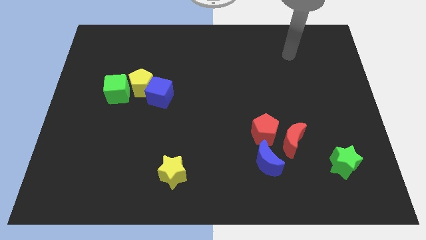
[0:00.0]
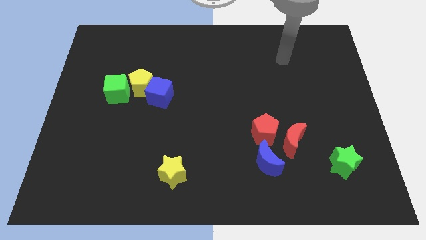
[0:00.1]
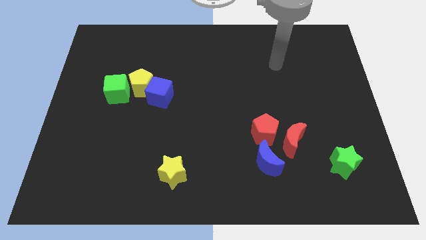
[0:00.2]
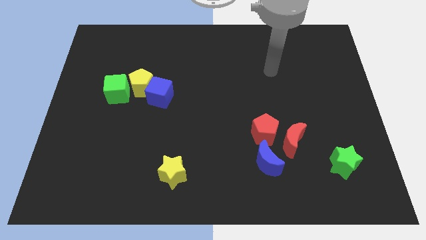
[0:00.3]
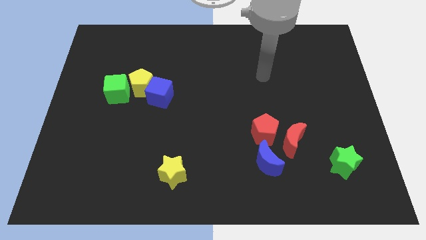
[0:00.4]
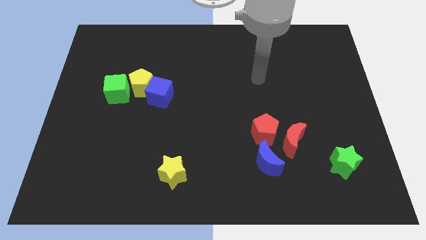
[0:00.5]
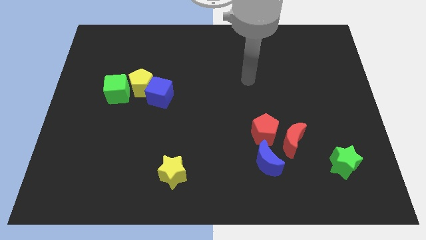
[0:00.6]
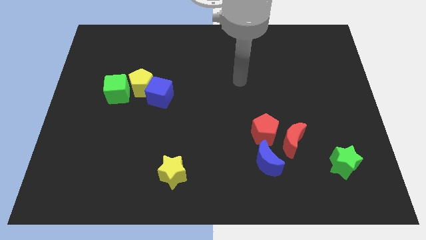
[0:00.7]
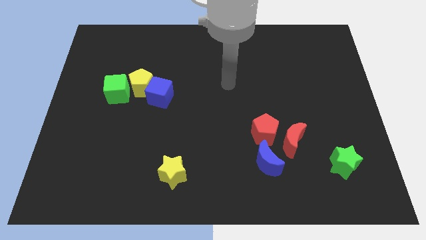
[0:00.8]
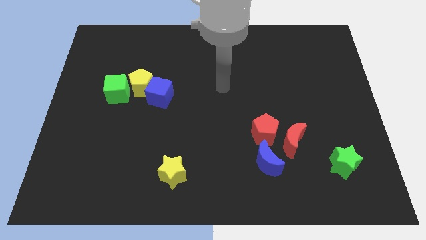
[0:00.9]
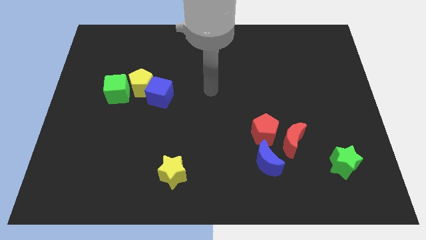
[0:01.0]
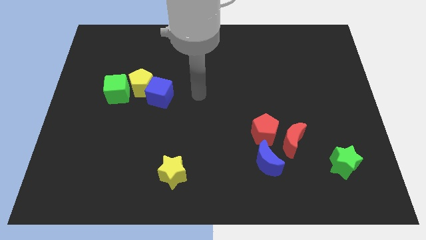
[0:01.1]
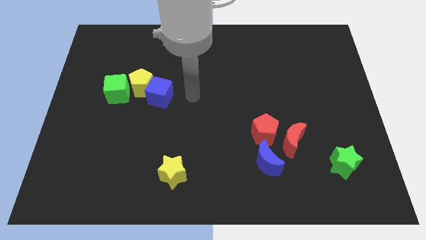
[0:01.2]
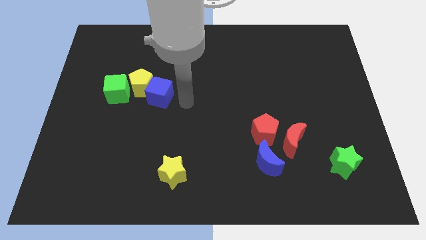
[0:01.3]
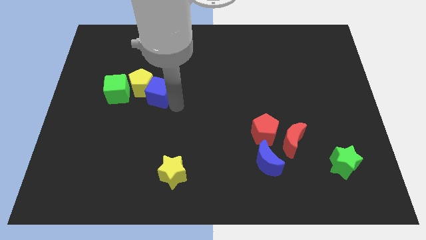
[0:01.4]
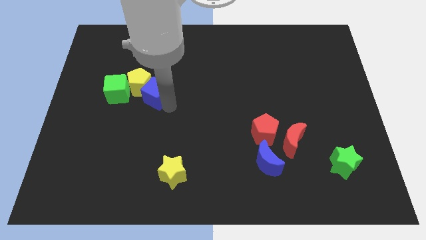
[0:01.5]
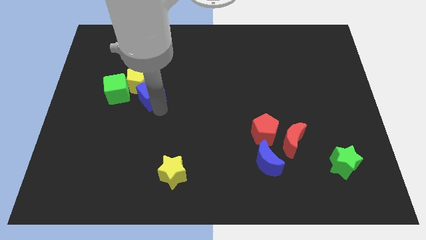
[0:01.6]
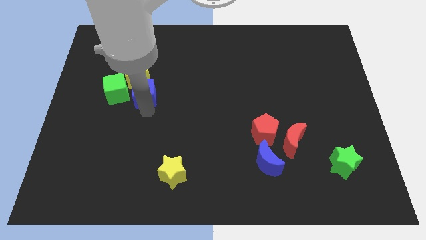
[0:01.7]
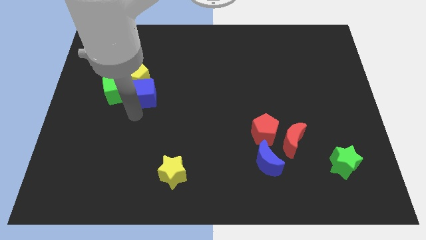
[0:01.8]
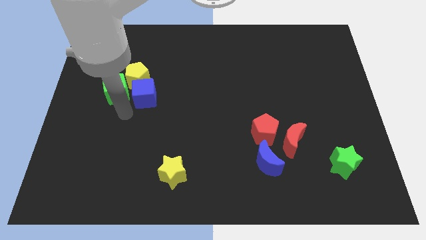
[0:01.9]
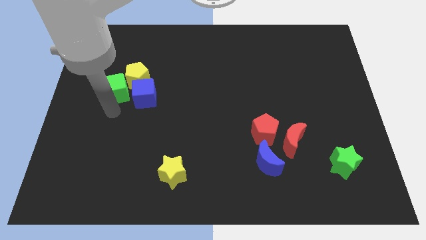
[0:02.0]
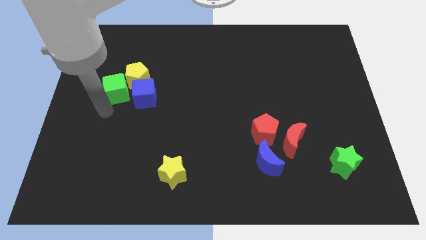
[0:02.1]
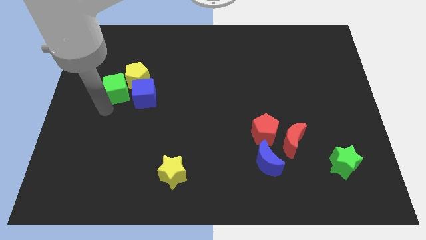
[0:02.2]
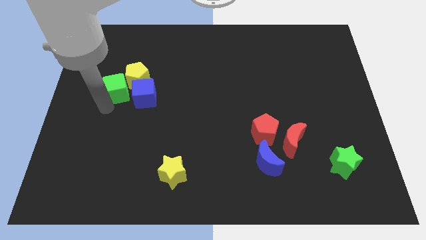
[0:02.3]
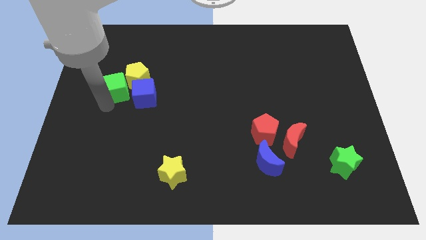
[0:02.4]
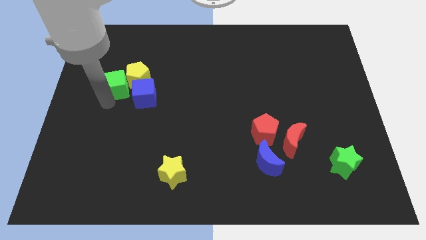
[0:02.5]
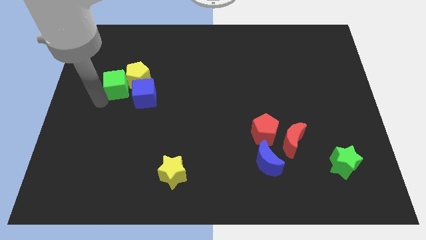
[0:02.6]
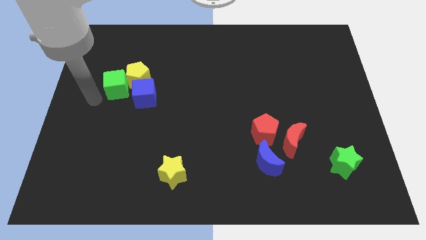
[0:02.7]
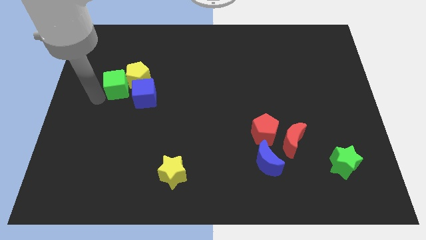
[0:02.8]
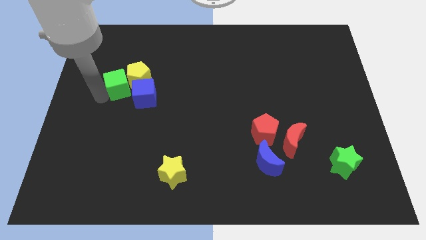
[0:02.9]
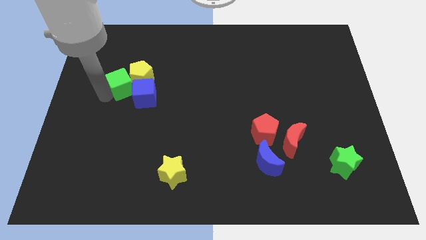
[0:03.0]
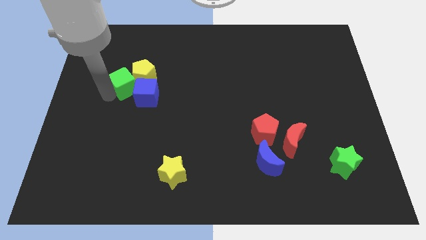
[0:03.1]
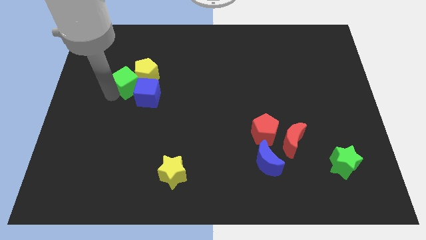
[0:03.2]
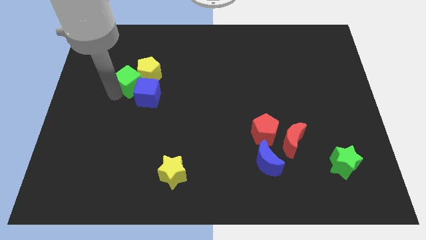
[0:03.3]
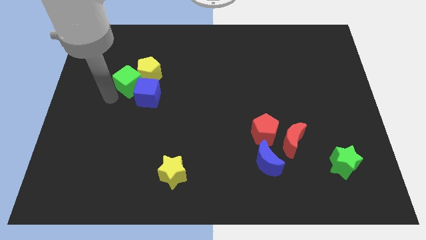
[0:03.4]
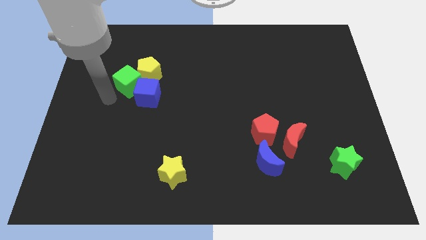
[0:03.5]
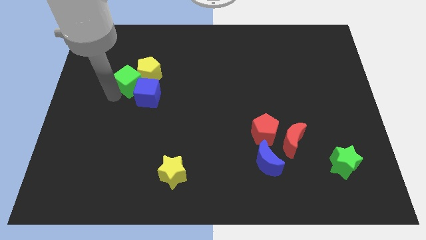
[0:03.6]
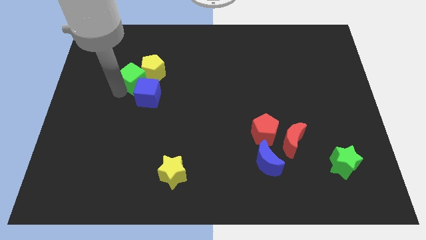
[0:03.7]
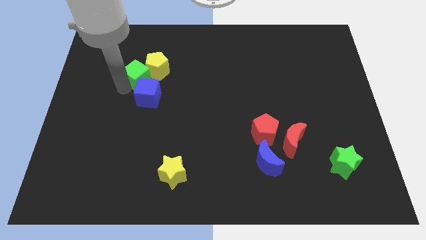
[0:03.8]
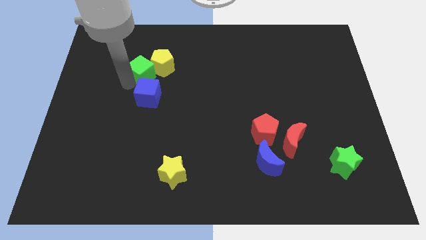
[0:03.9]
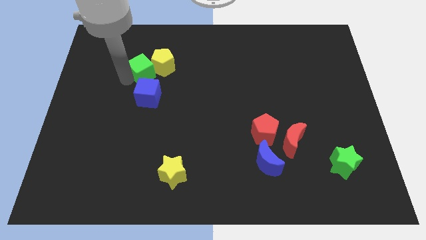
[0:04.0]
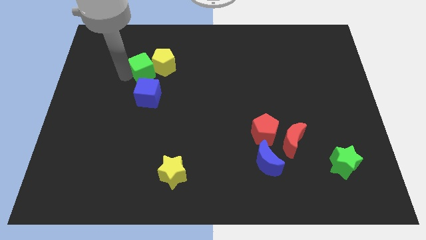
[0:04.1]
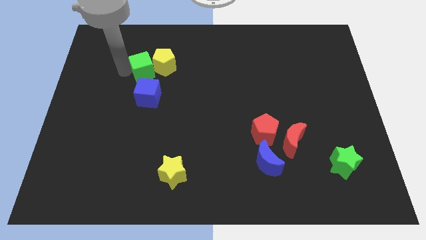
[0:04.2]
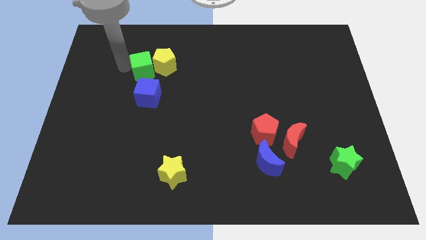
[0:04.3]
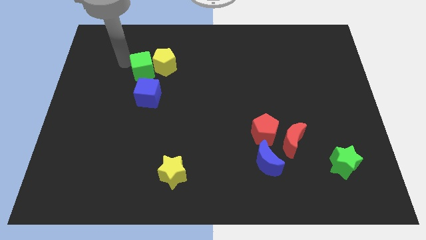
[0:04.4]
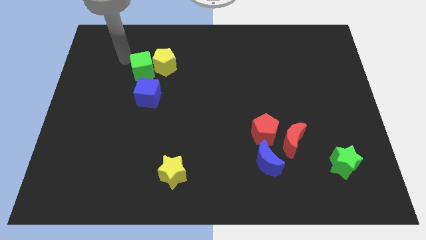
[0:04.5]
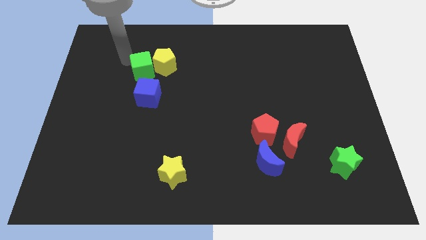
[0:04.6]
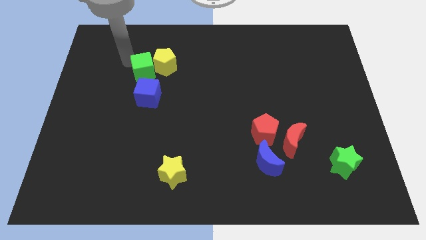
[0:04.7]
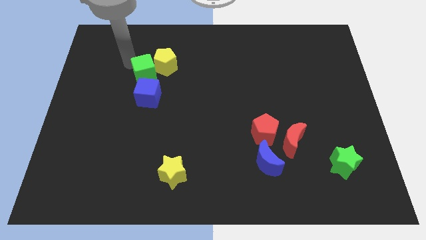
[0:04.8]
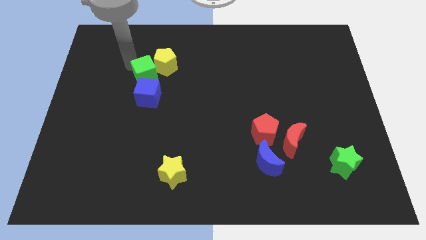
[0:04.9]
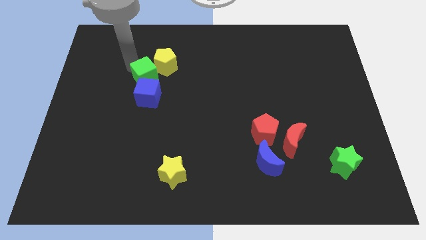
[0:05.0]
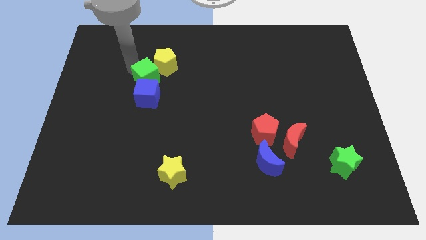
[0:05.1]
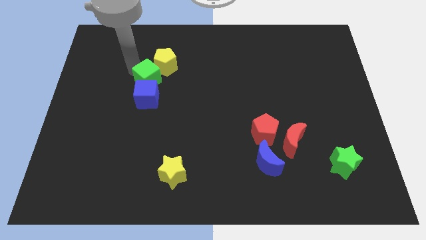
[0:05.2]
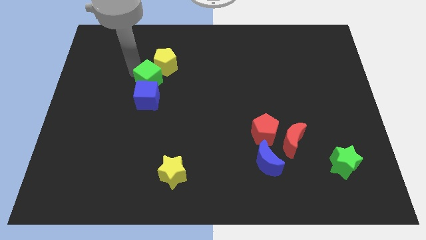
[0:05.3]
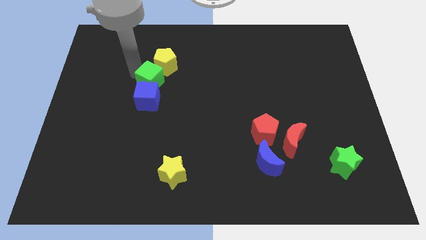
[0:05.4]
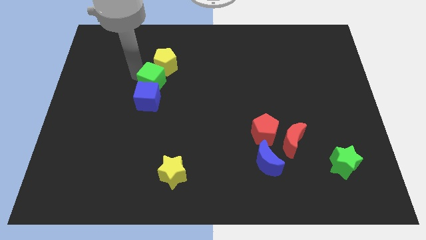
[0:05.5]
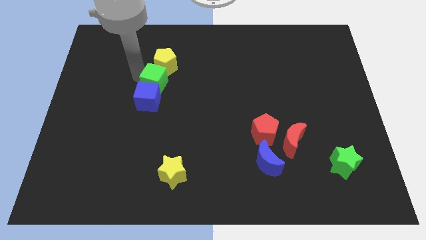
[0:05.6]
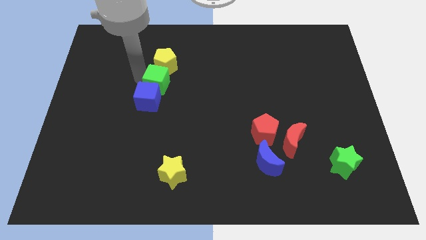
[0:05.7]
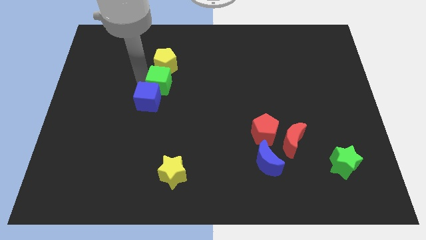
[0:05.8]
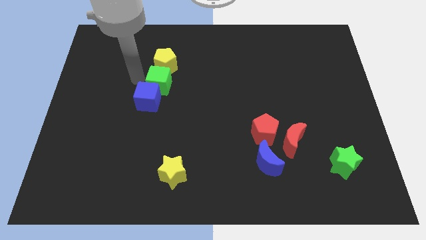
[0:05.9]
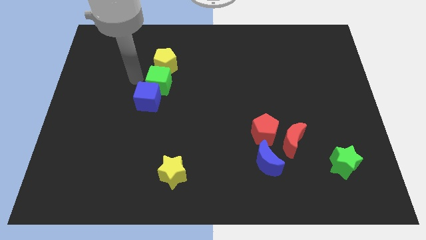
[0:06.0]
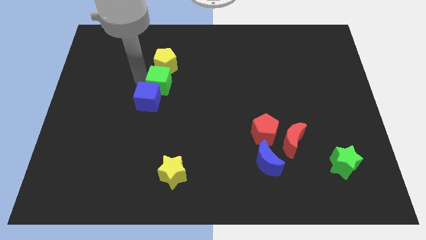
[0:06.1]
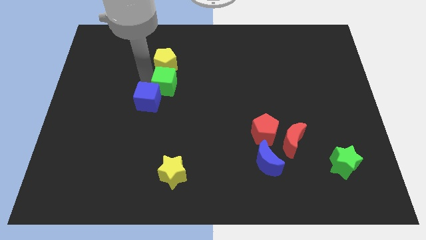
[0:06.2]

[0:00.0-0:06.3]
put the green cube to the center of the board
